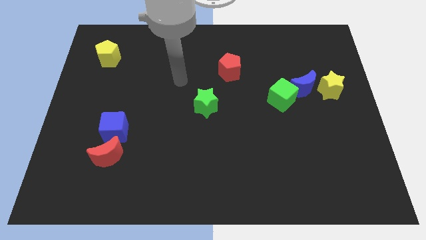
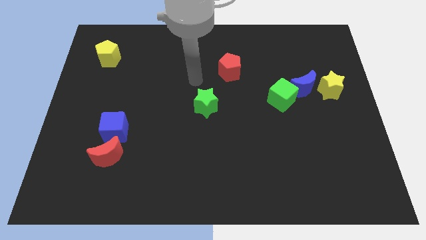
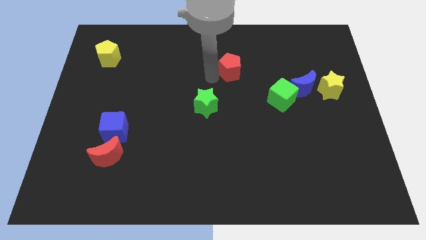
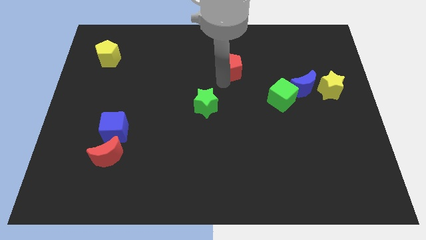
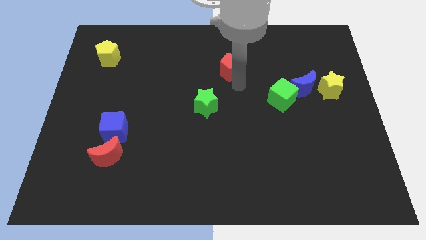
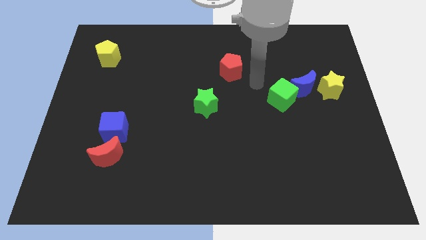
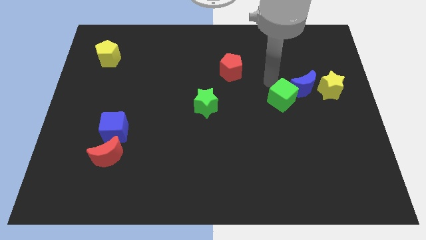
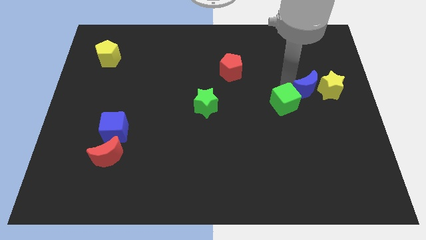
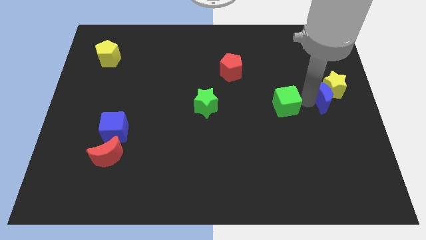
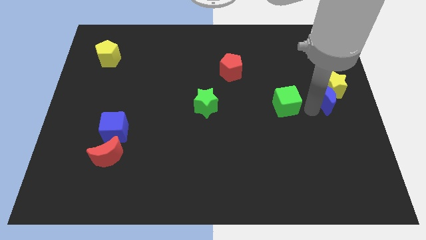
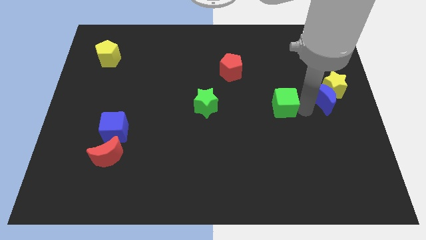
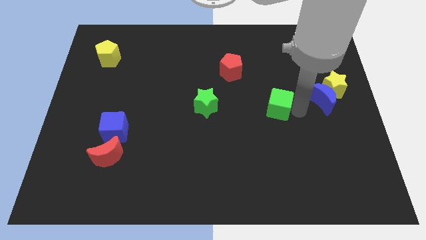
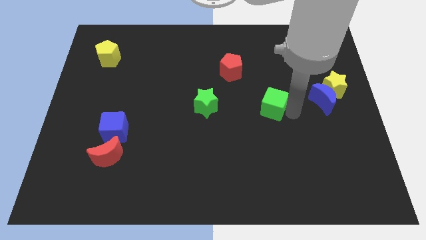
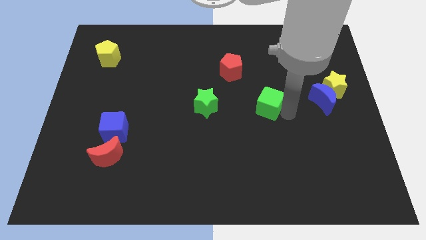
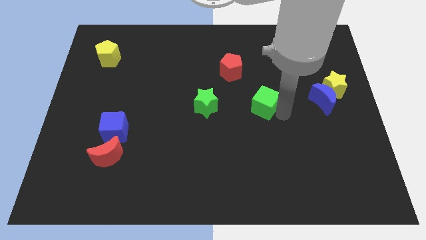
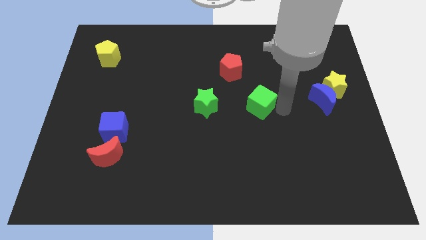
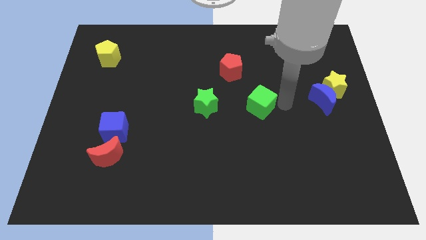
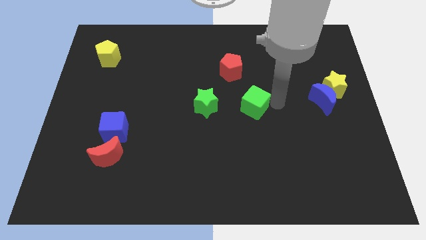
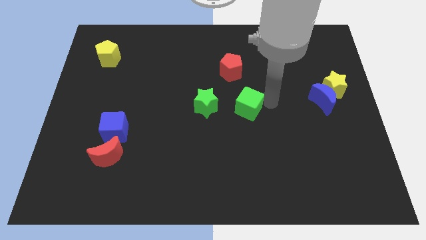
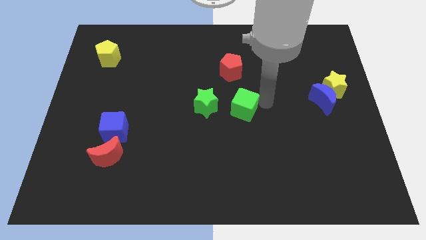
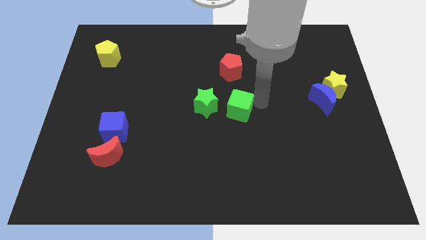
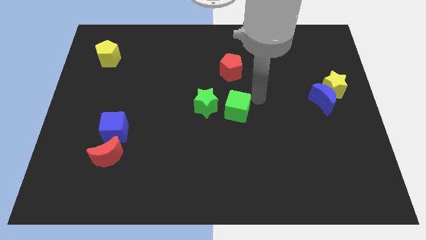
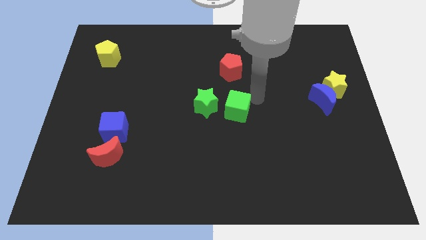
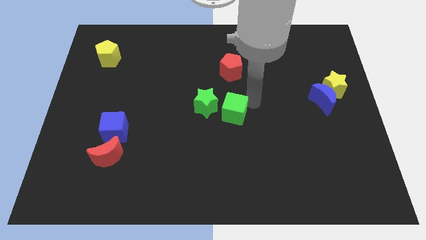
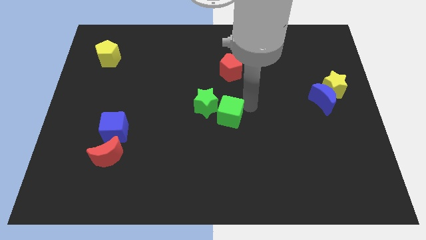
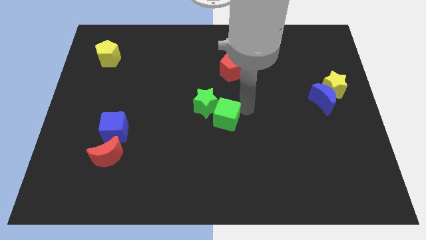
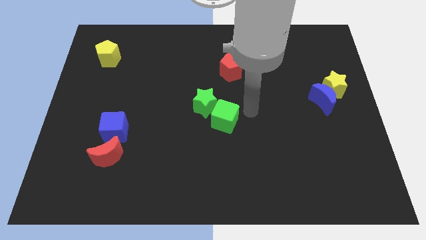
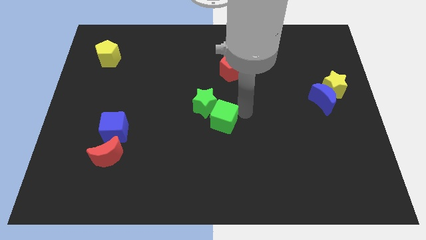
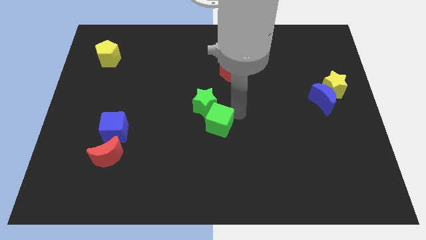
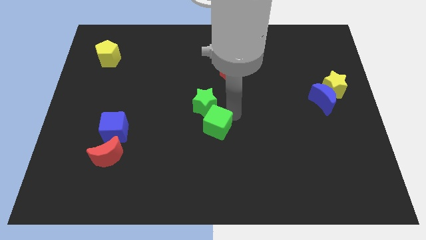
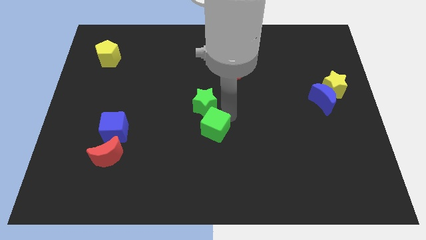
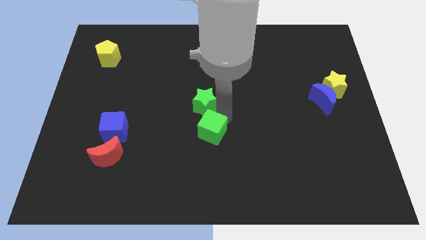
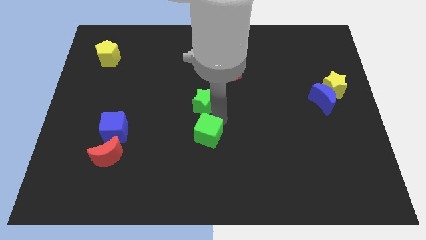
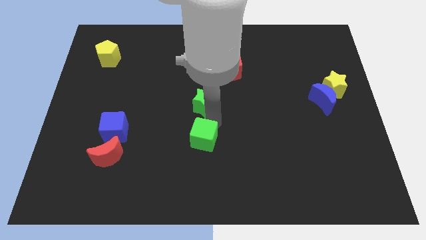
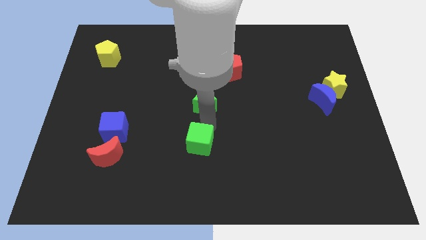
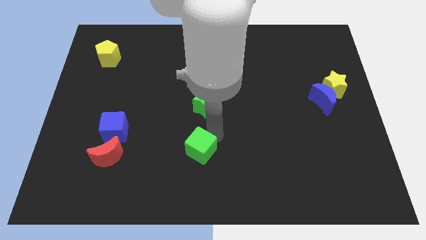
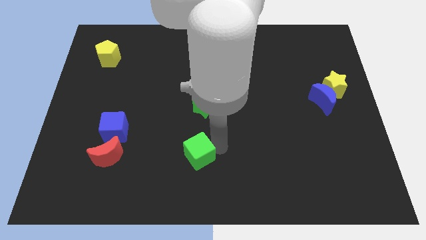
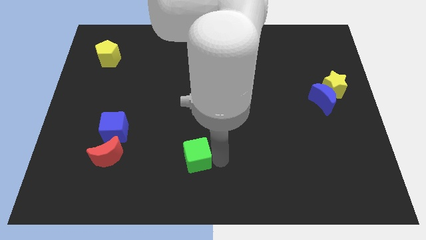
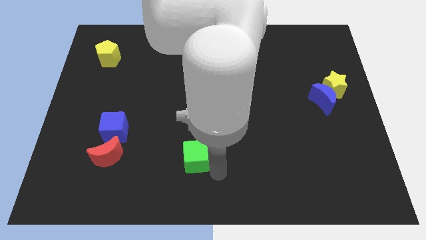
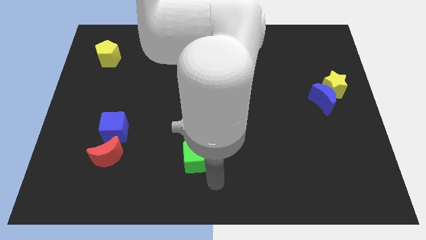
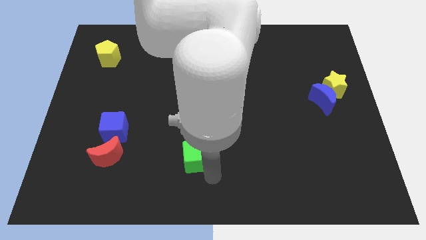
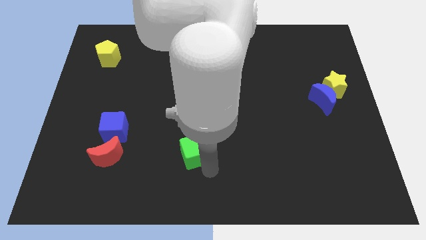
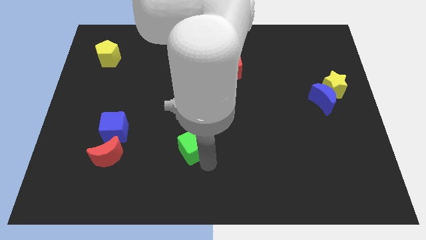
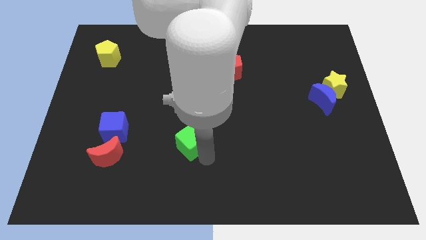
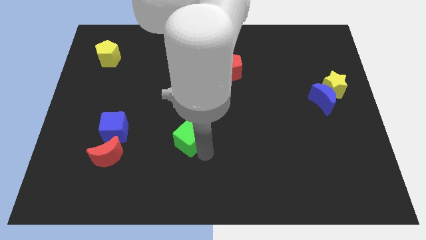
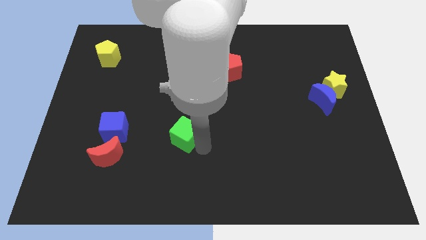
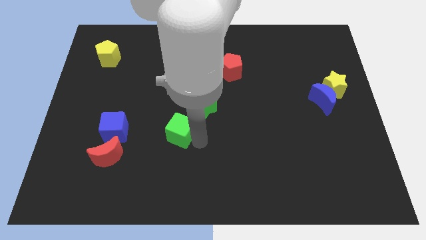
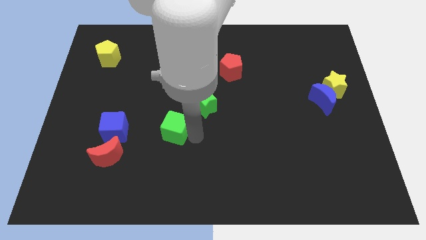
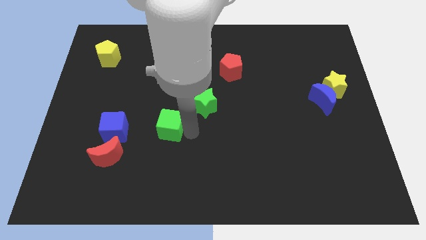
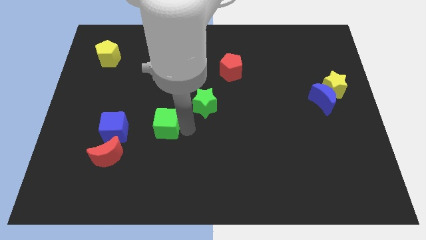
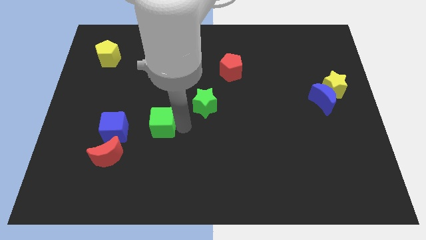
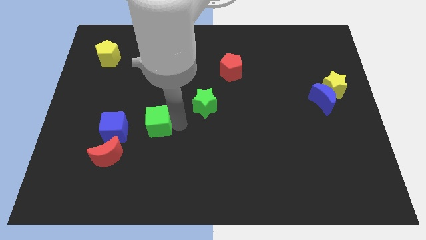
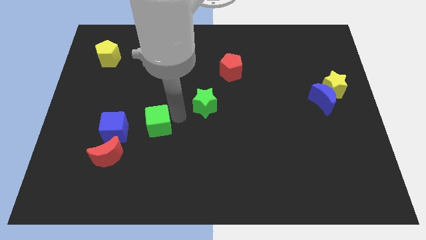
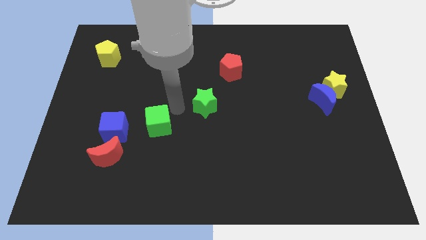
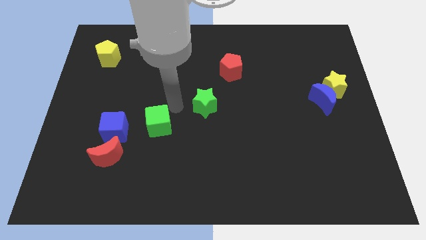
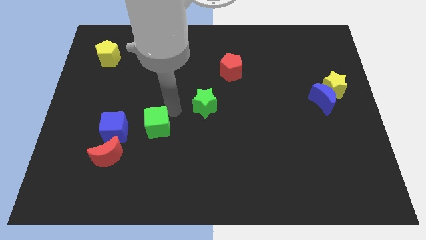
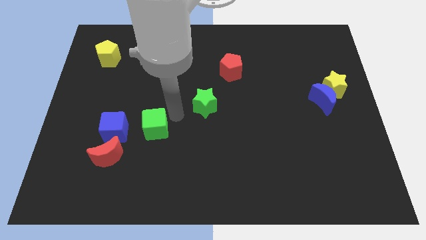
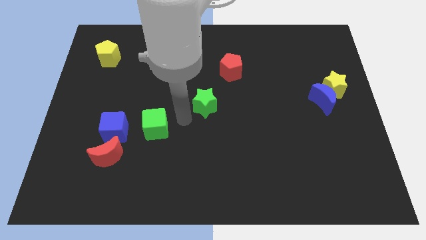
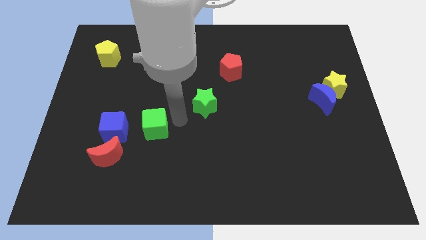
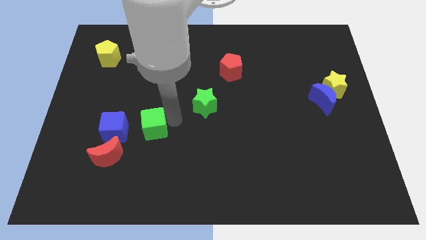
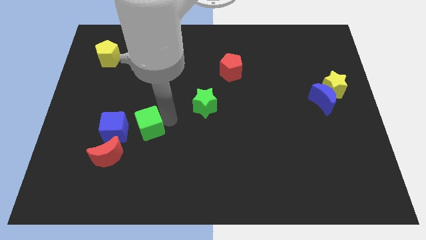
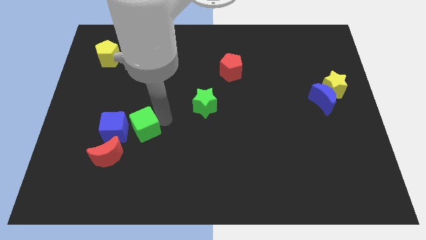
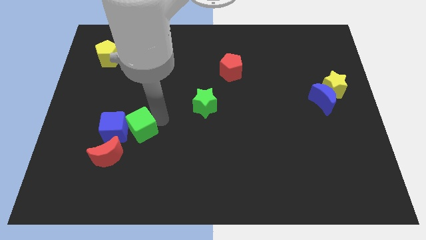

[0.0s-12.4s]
slide the green cube to the blue cube
